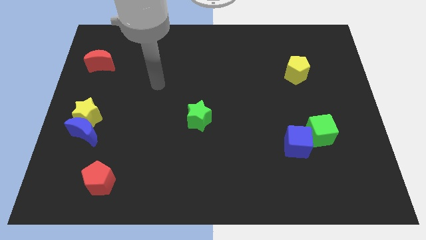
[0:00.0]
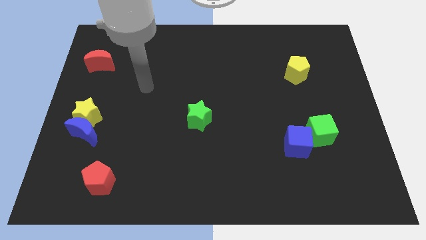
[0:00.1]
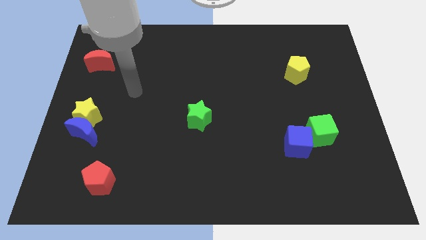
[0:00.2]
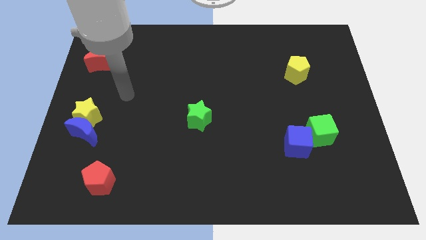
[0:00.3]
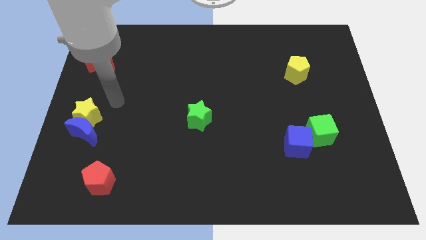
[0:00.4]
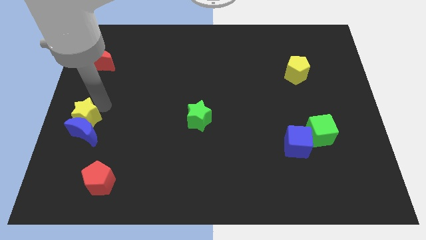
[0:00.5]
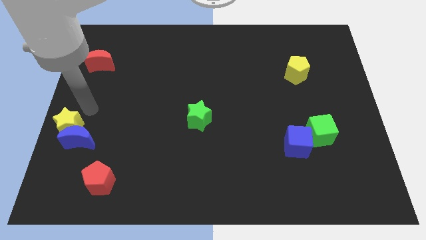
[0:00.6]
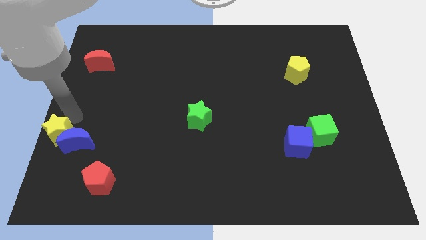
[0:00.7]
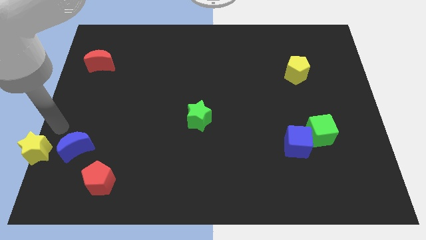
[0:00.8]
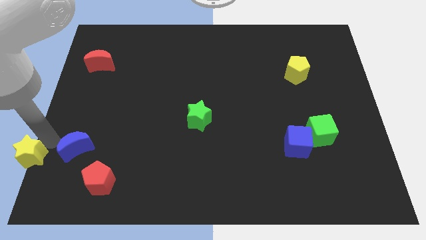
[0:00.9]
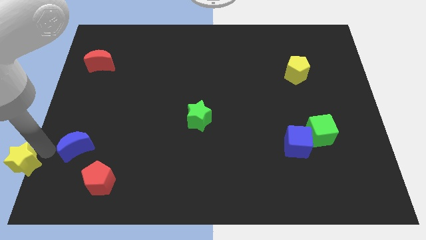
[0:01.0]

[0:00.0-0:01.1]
move the blue moon away from the yellow star

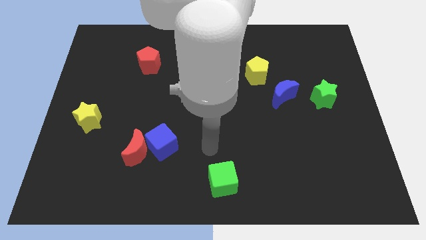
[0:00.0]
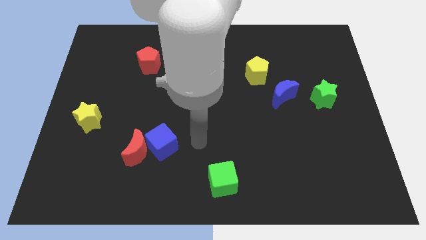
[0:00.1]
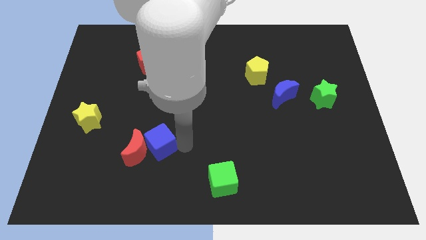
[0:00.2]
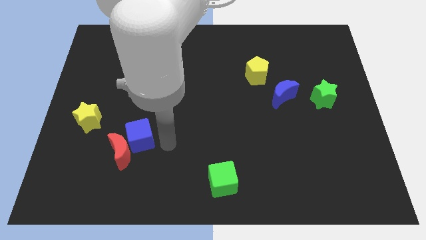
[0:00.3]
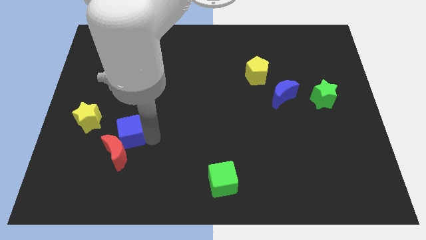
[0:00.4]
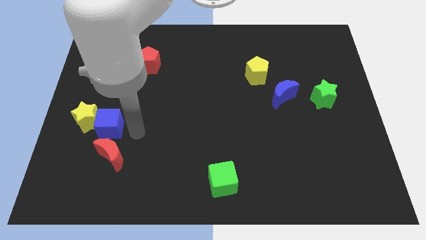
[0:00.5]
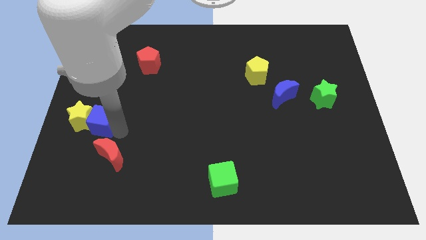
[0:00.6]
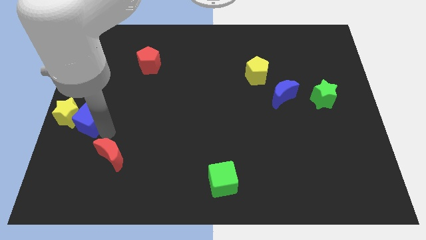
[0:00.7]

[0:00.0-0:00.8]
pull the red moon apart from the blue cube

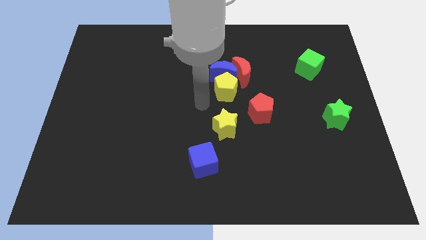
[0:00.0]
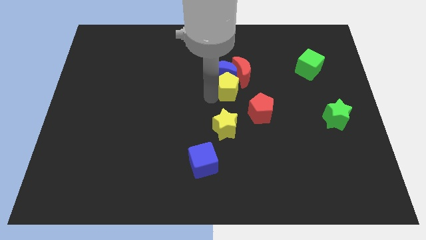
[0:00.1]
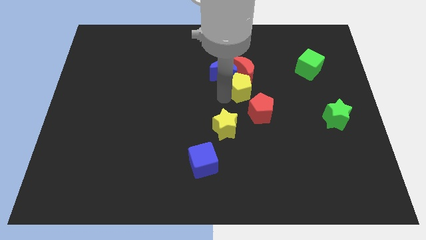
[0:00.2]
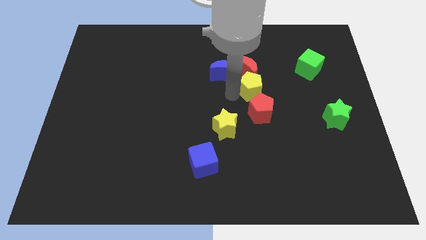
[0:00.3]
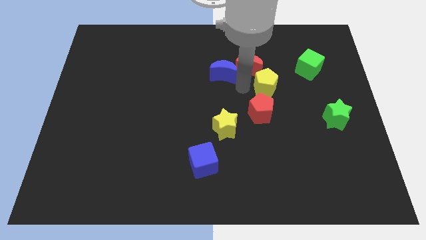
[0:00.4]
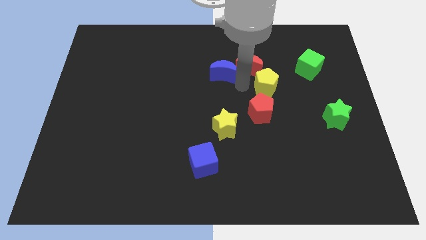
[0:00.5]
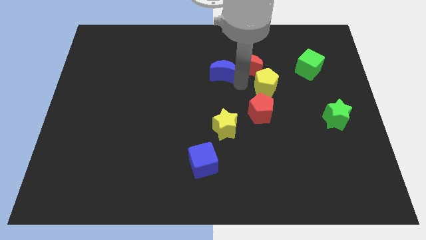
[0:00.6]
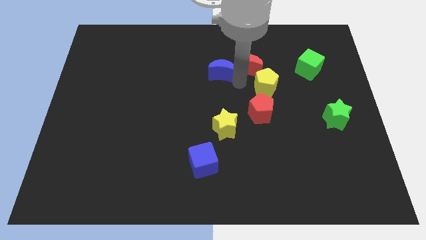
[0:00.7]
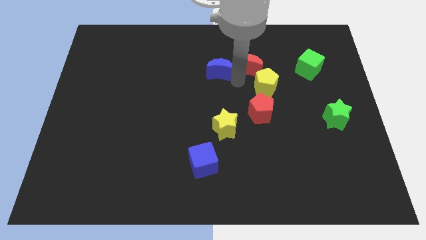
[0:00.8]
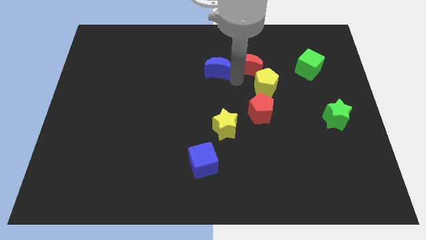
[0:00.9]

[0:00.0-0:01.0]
move the blue moon away from the red moon and yellow pentagon

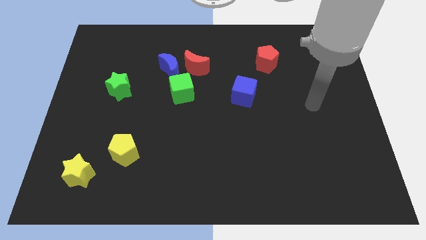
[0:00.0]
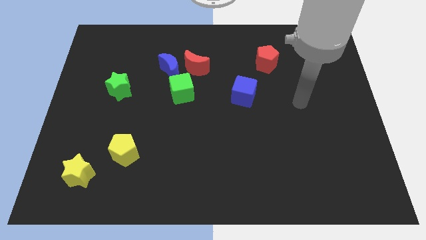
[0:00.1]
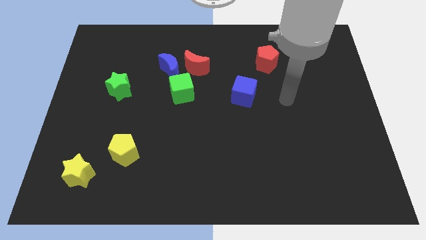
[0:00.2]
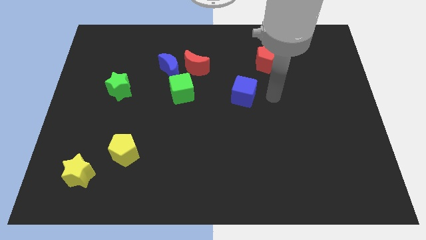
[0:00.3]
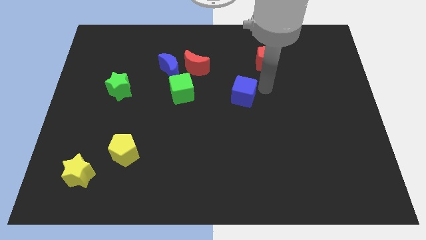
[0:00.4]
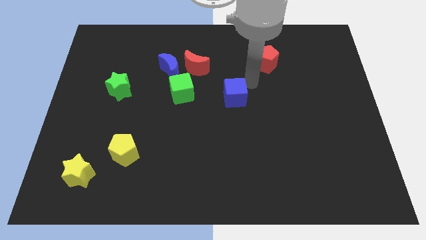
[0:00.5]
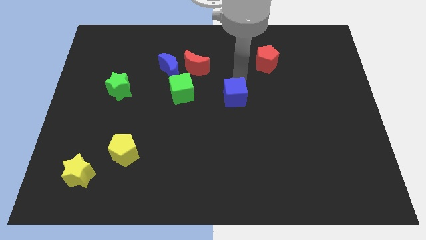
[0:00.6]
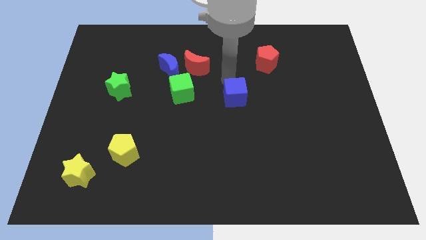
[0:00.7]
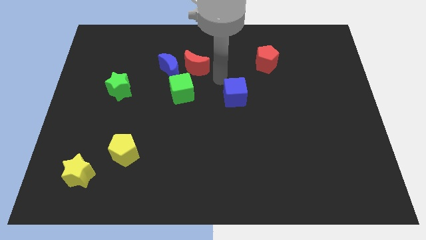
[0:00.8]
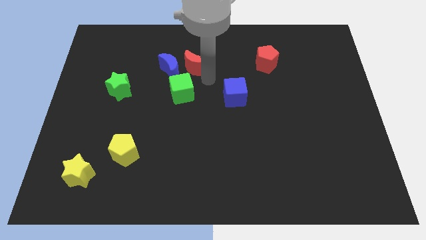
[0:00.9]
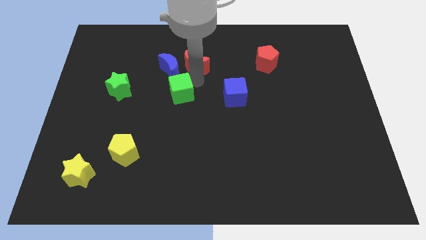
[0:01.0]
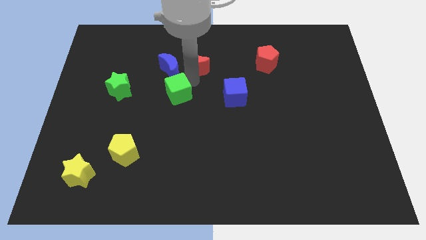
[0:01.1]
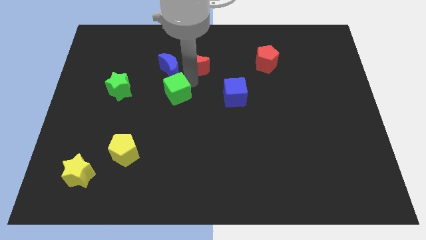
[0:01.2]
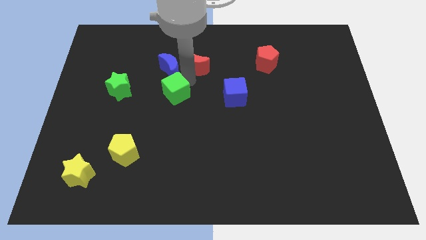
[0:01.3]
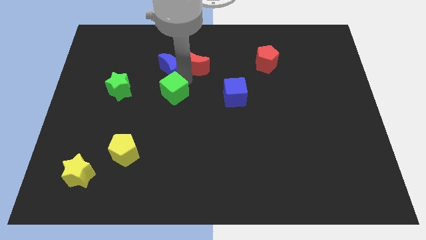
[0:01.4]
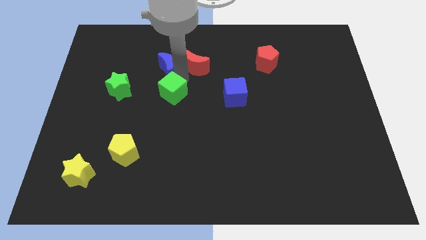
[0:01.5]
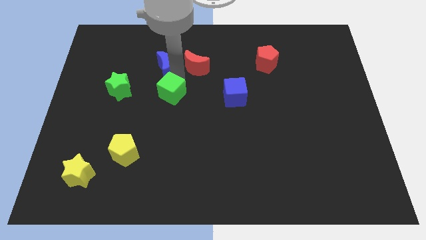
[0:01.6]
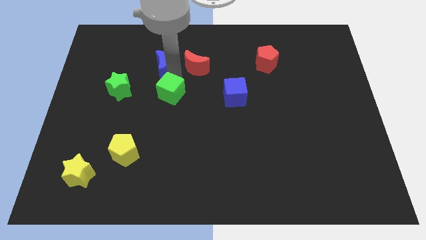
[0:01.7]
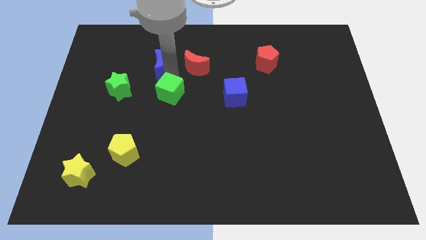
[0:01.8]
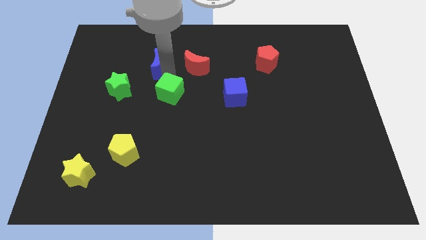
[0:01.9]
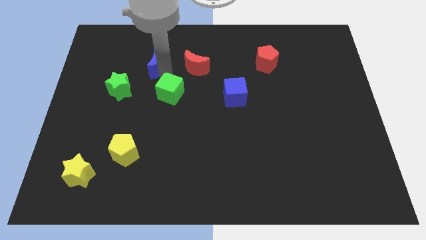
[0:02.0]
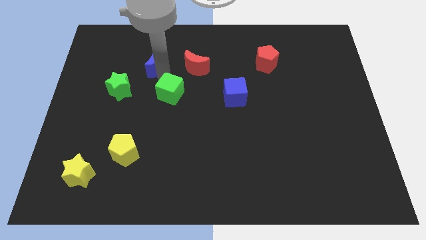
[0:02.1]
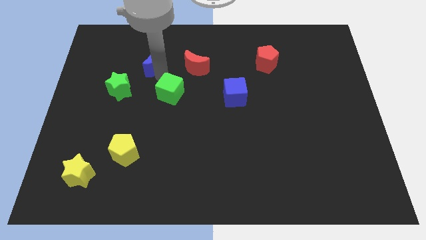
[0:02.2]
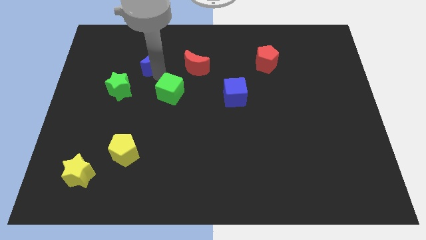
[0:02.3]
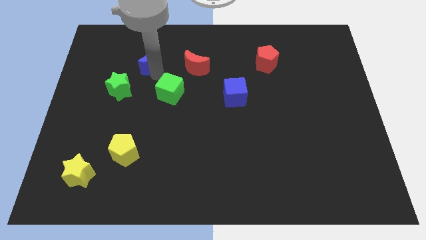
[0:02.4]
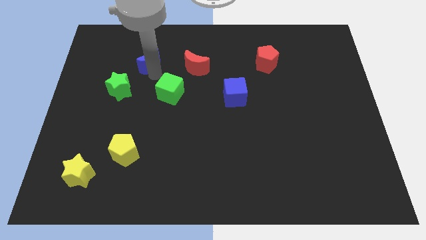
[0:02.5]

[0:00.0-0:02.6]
pull the blue moon apart from the red moon and green cube

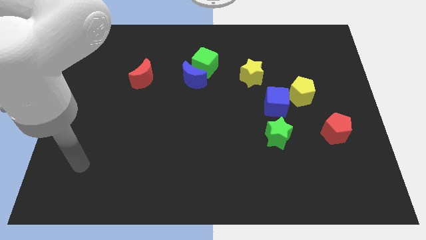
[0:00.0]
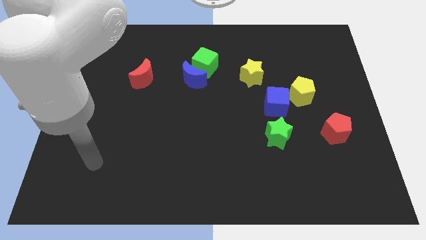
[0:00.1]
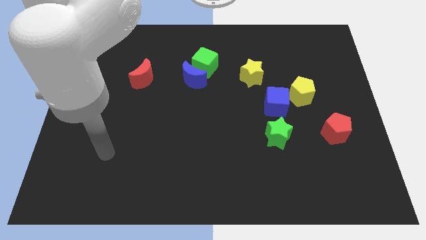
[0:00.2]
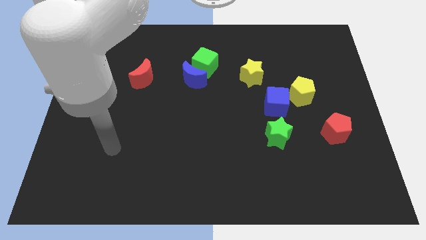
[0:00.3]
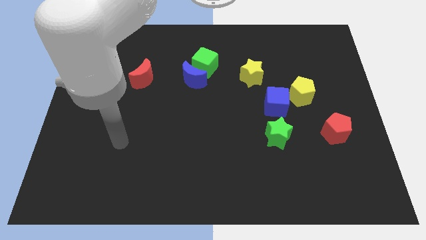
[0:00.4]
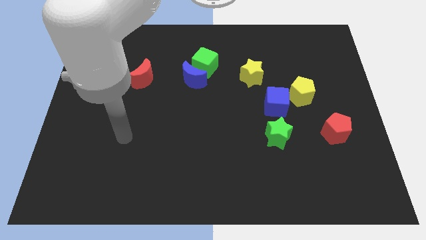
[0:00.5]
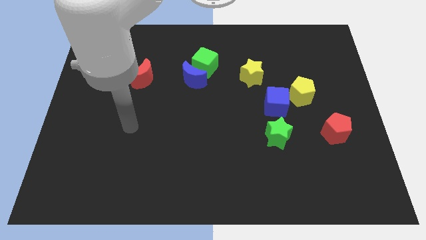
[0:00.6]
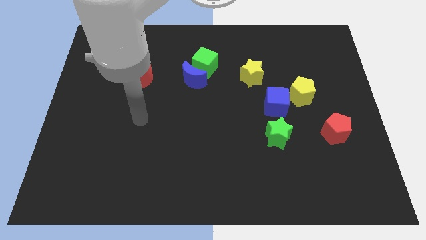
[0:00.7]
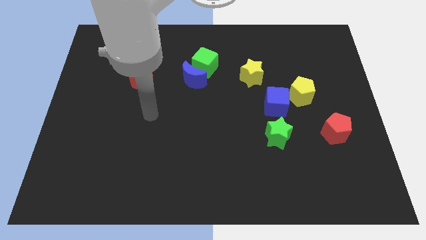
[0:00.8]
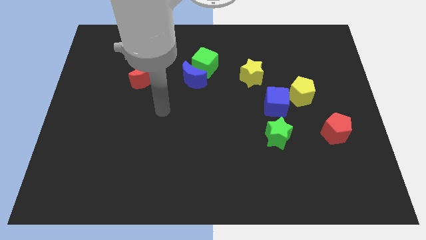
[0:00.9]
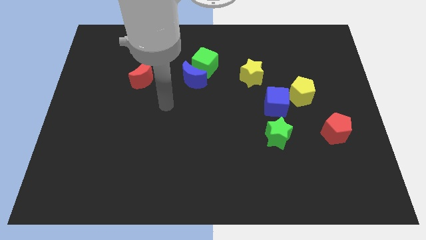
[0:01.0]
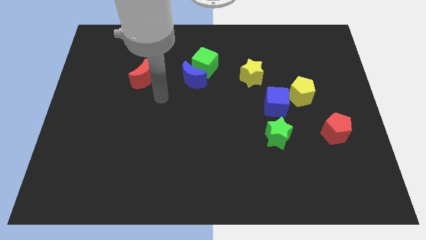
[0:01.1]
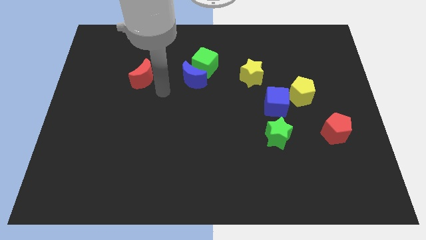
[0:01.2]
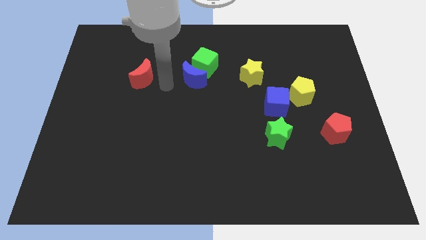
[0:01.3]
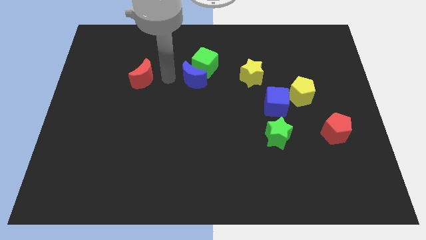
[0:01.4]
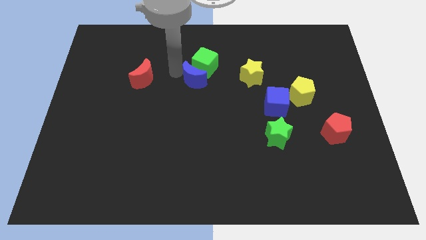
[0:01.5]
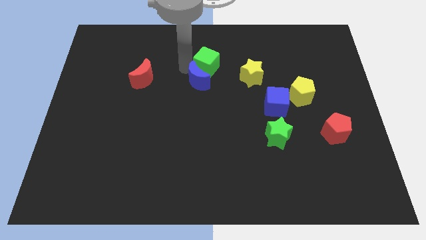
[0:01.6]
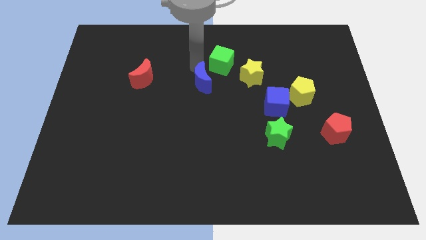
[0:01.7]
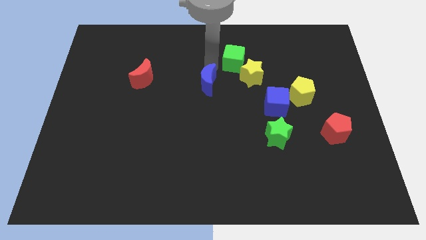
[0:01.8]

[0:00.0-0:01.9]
move the blue moon away from the green cube

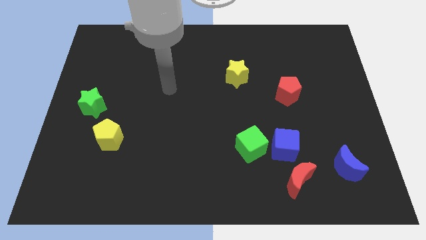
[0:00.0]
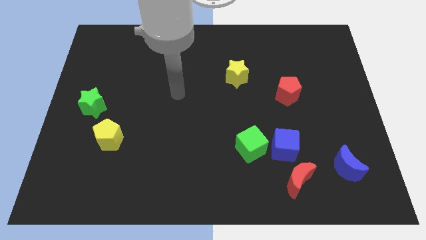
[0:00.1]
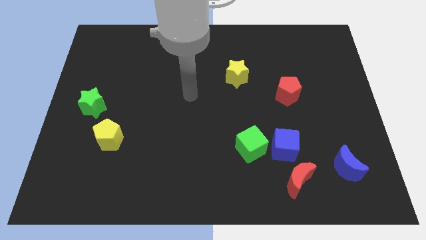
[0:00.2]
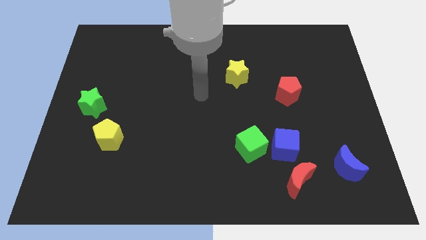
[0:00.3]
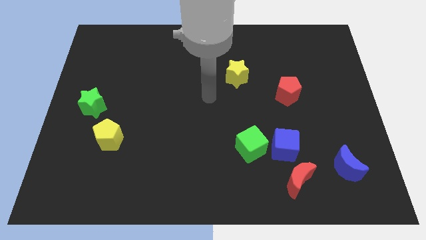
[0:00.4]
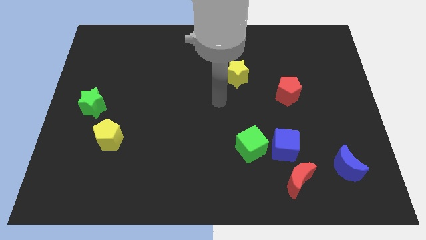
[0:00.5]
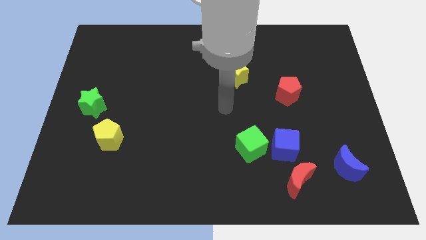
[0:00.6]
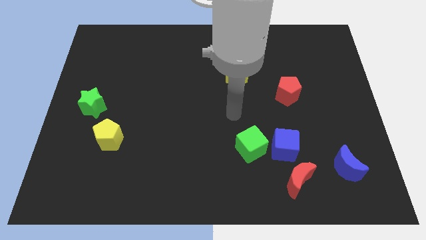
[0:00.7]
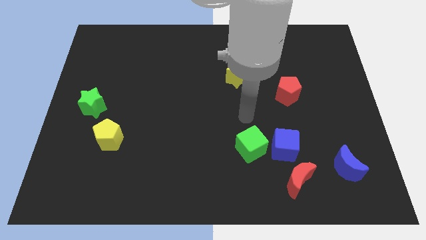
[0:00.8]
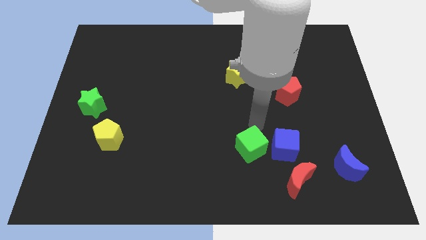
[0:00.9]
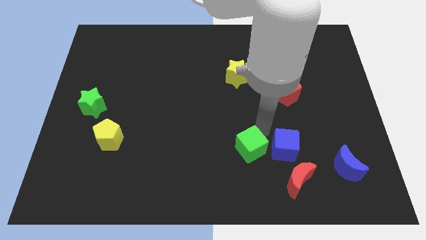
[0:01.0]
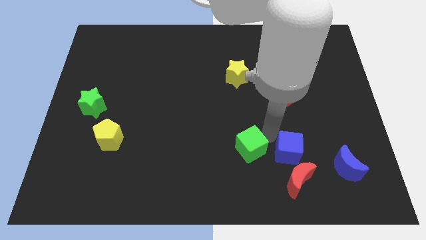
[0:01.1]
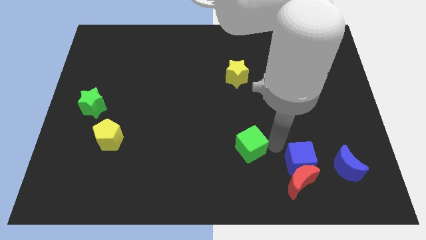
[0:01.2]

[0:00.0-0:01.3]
pull the green cube apart from the blue cube

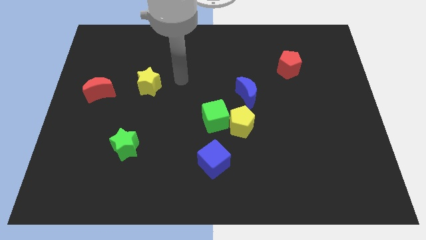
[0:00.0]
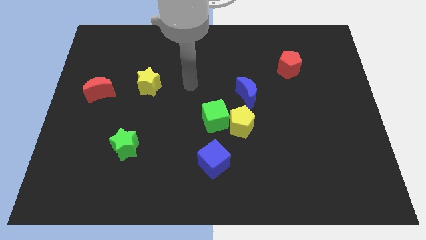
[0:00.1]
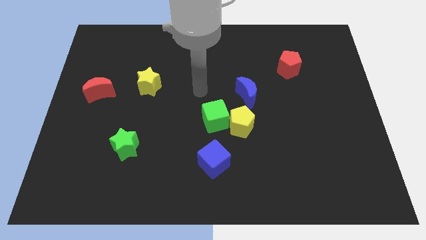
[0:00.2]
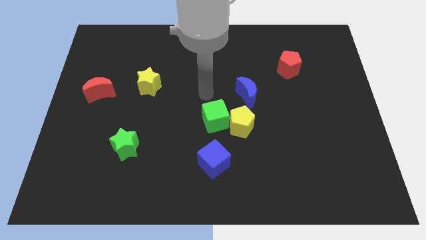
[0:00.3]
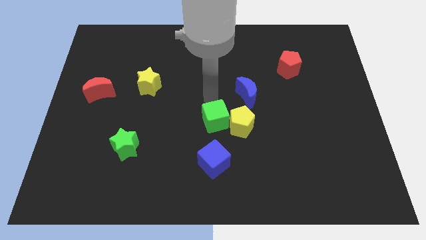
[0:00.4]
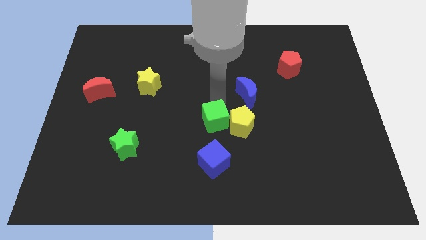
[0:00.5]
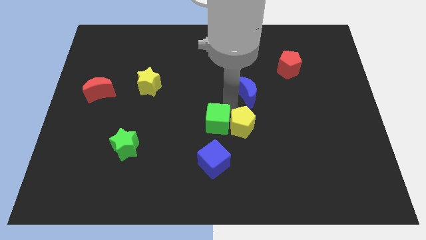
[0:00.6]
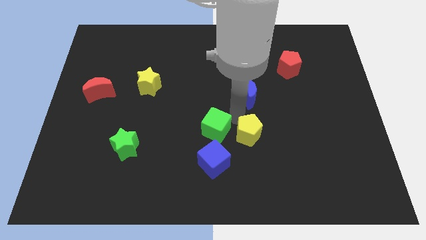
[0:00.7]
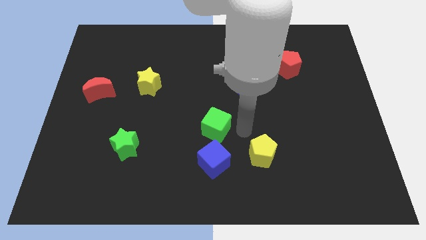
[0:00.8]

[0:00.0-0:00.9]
pull the green cube apart from the yellow pentagon
